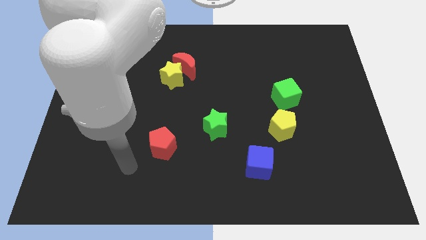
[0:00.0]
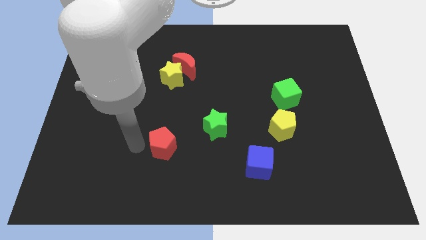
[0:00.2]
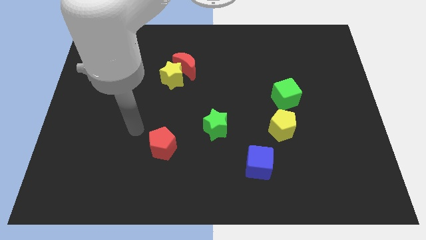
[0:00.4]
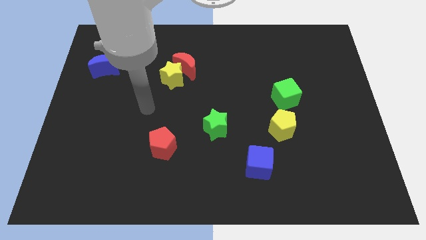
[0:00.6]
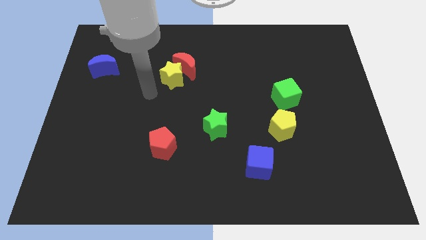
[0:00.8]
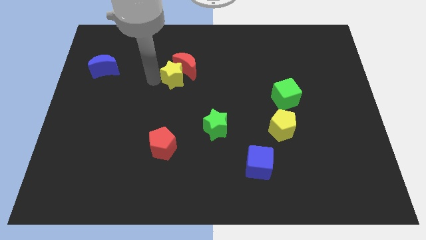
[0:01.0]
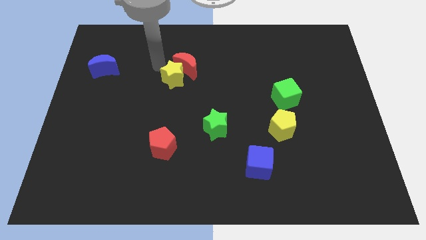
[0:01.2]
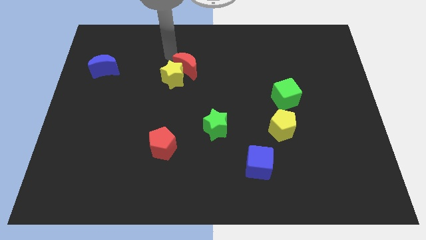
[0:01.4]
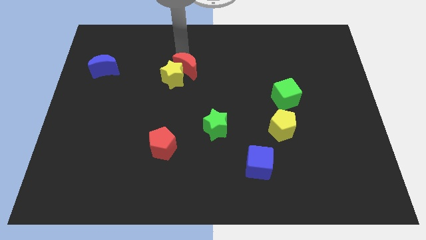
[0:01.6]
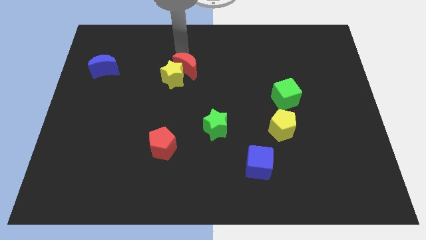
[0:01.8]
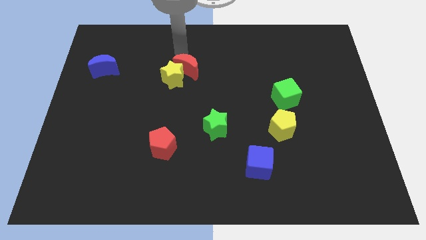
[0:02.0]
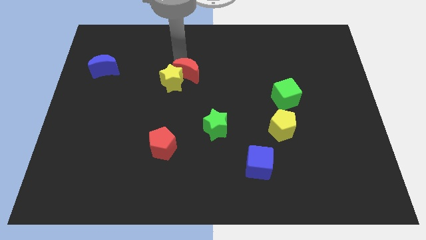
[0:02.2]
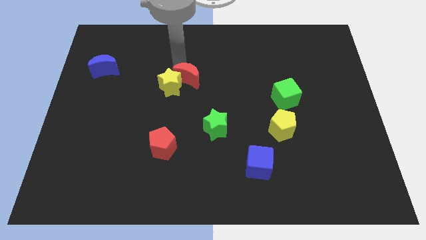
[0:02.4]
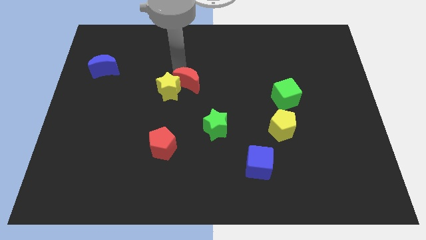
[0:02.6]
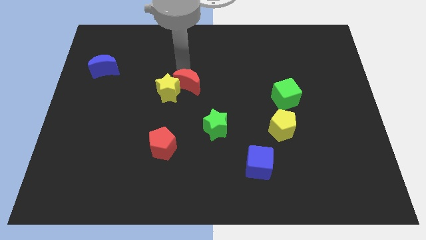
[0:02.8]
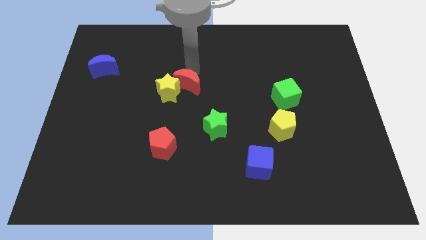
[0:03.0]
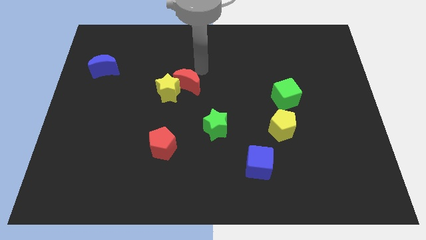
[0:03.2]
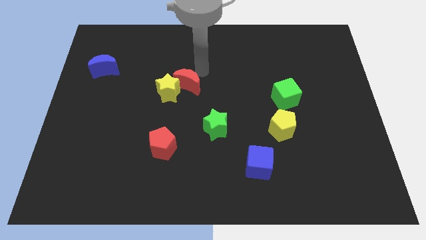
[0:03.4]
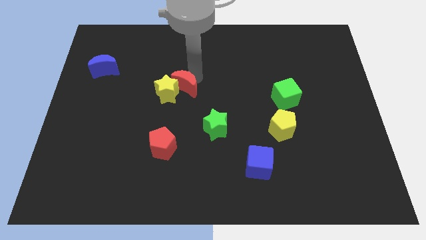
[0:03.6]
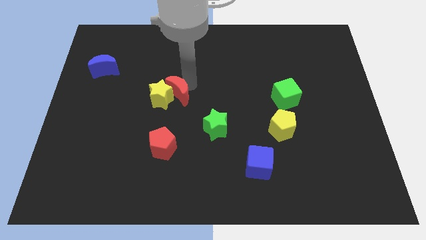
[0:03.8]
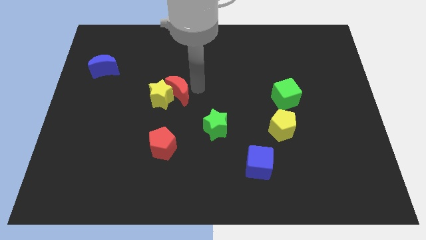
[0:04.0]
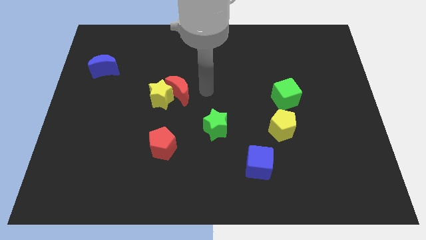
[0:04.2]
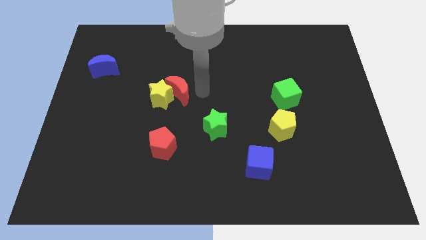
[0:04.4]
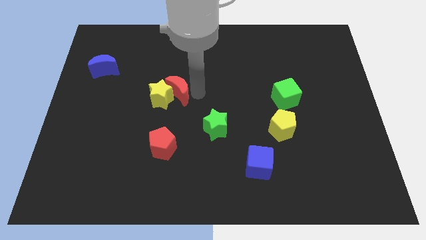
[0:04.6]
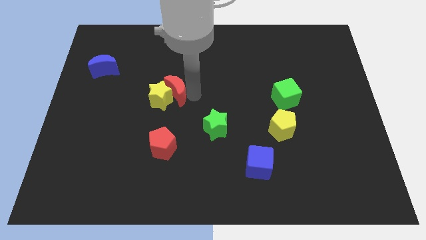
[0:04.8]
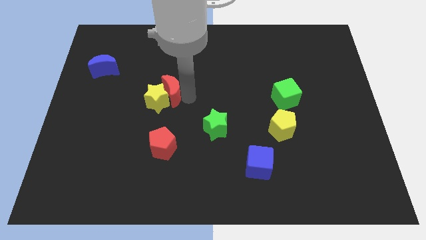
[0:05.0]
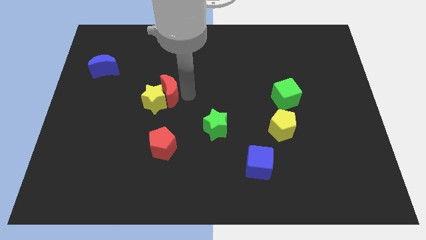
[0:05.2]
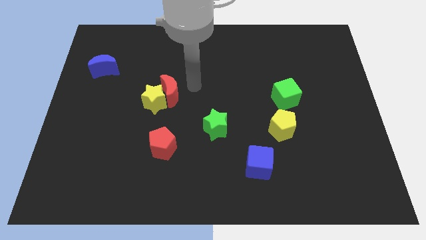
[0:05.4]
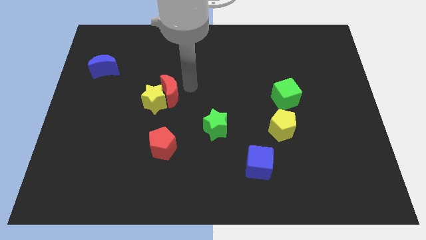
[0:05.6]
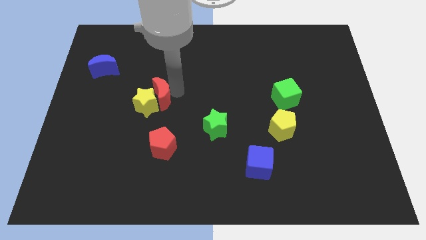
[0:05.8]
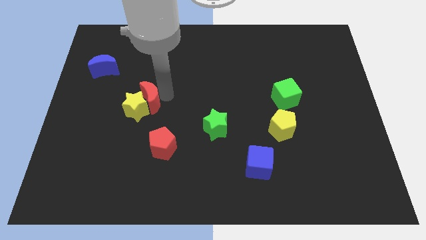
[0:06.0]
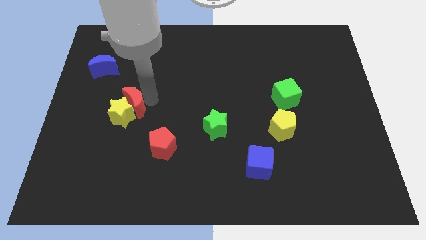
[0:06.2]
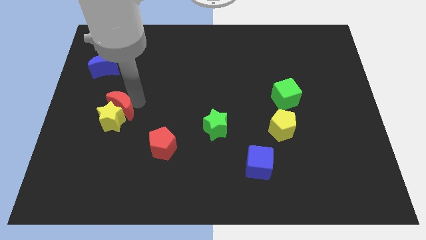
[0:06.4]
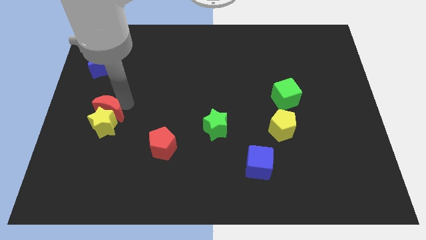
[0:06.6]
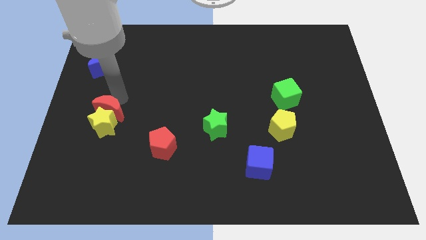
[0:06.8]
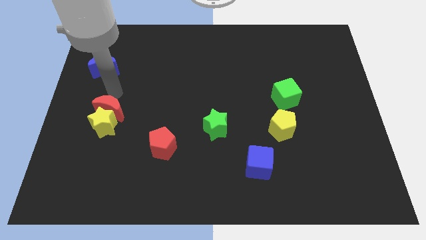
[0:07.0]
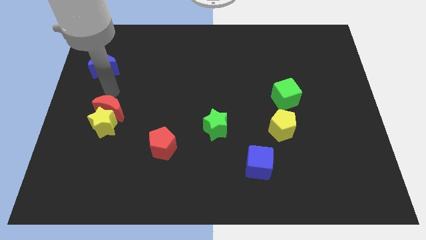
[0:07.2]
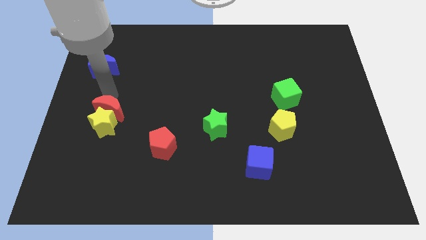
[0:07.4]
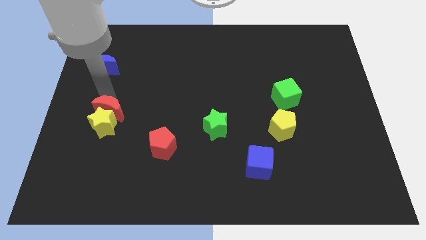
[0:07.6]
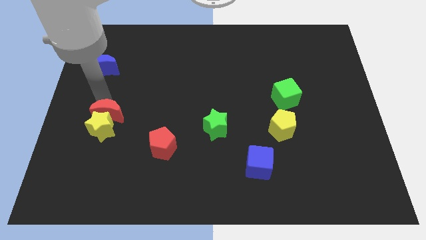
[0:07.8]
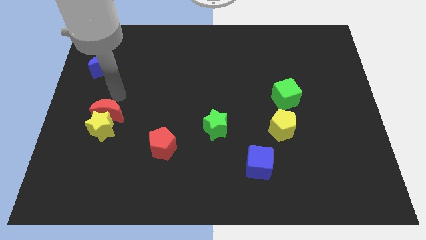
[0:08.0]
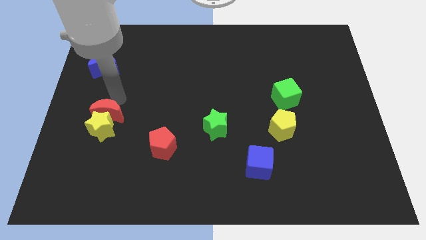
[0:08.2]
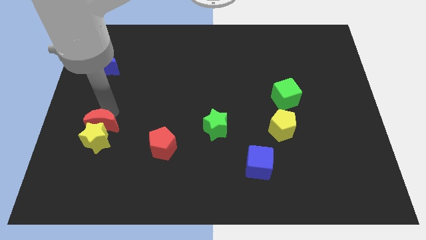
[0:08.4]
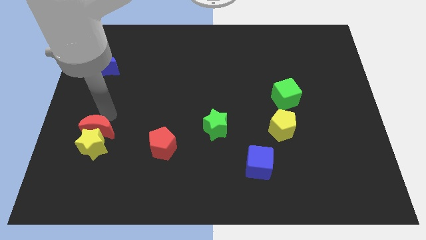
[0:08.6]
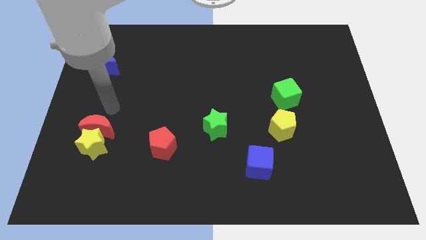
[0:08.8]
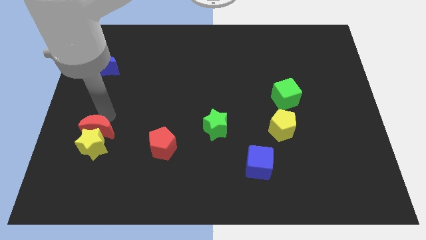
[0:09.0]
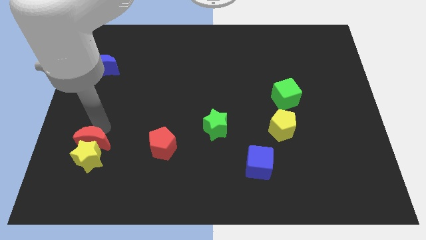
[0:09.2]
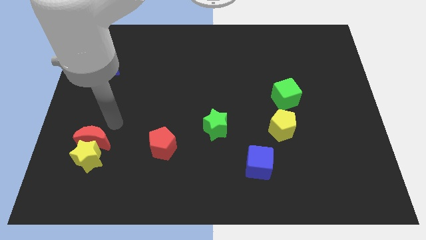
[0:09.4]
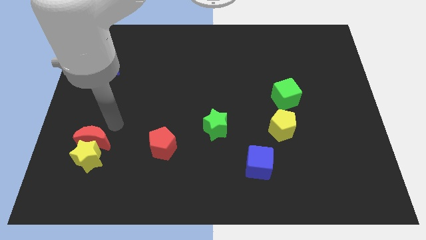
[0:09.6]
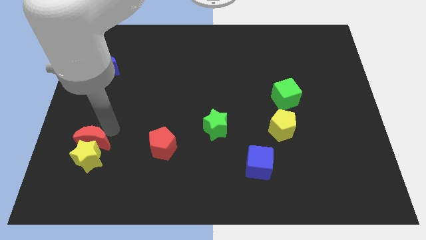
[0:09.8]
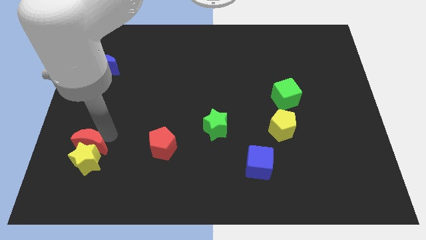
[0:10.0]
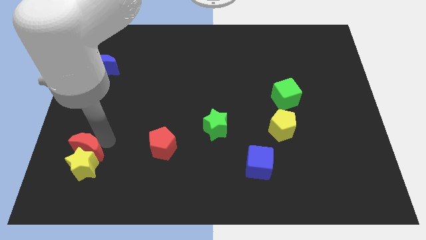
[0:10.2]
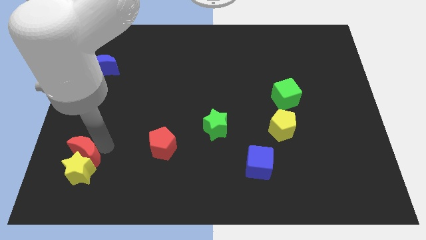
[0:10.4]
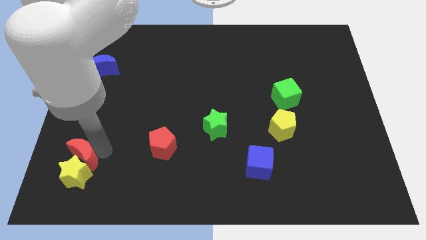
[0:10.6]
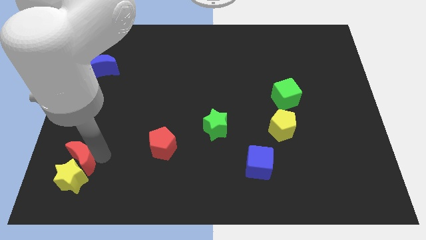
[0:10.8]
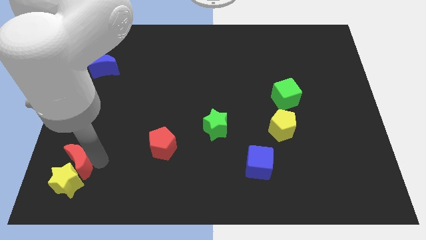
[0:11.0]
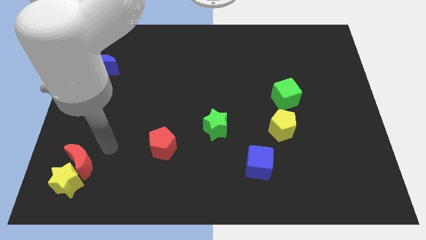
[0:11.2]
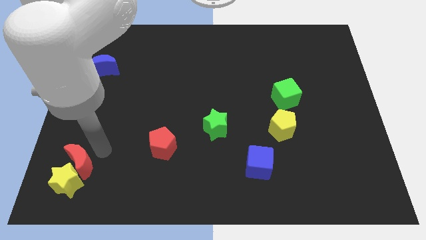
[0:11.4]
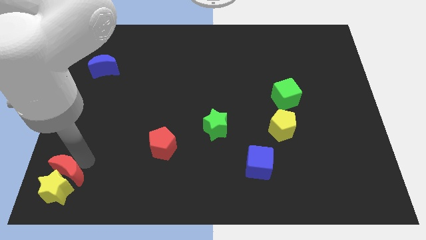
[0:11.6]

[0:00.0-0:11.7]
put the red moon to the bottom left corner

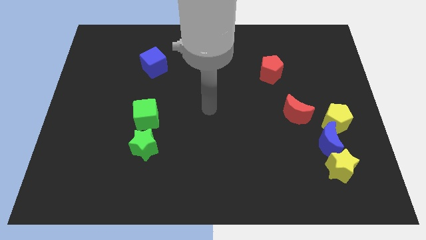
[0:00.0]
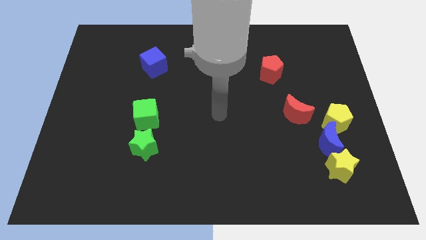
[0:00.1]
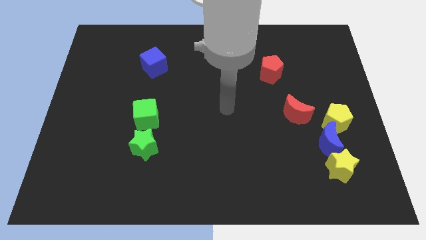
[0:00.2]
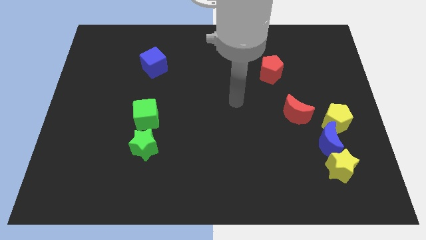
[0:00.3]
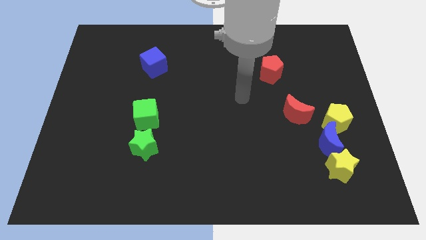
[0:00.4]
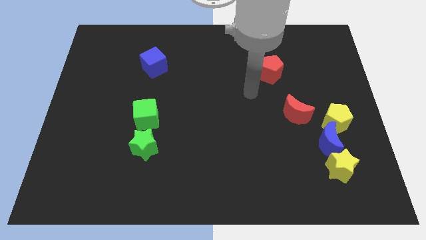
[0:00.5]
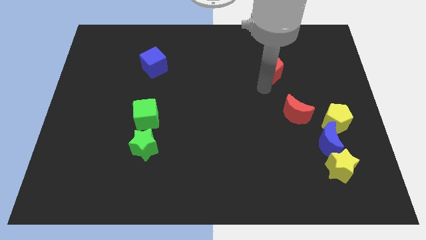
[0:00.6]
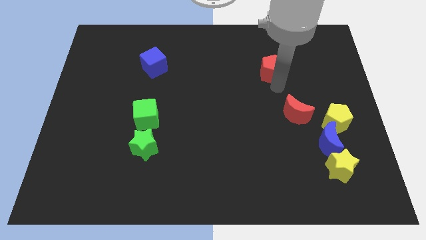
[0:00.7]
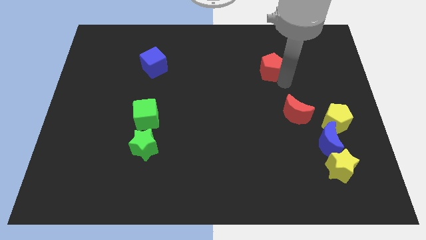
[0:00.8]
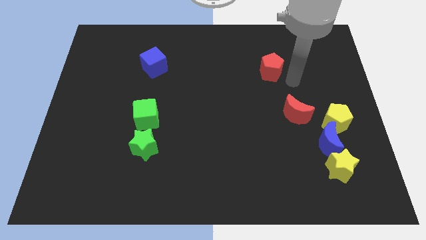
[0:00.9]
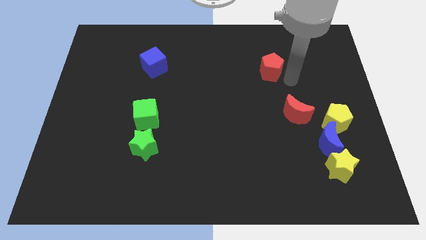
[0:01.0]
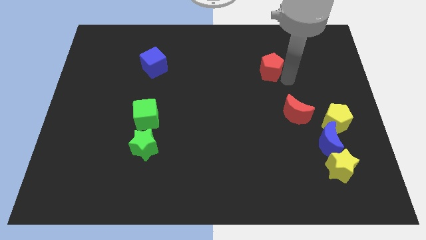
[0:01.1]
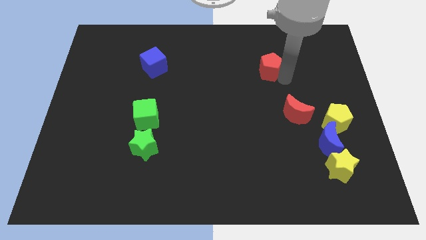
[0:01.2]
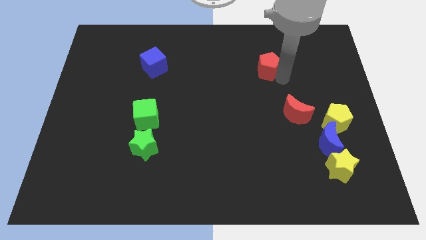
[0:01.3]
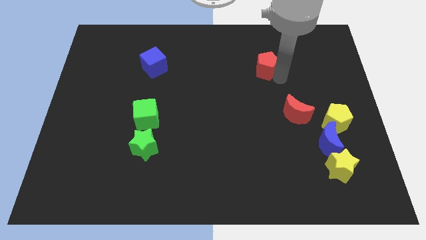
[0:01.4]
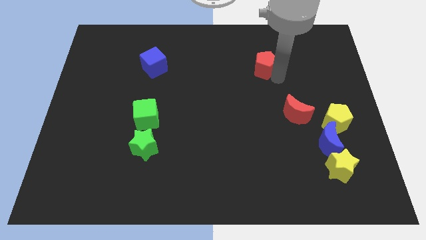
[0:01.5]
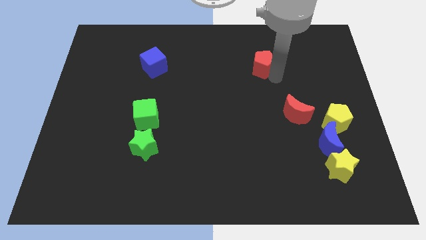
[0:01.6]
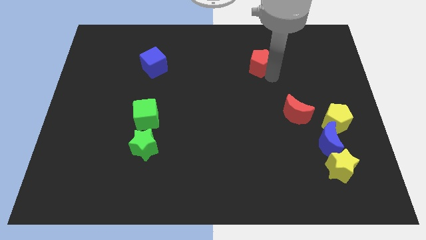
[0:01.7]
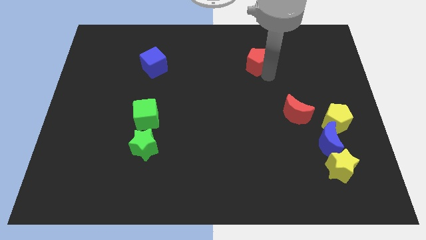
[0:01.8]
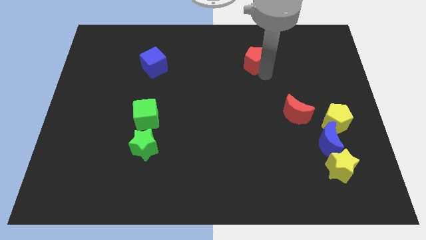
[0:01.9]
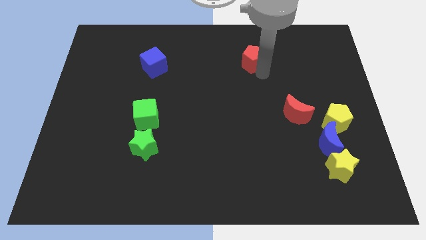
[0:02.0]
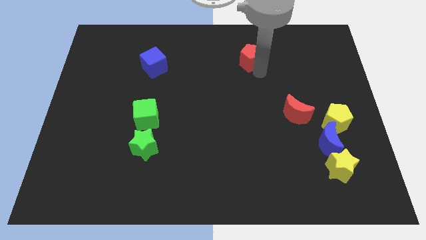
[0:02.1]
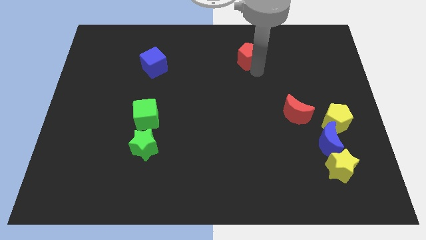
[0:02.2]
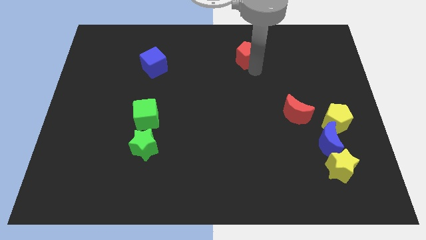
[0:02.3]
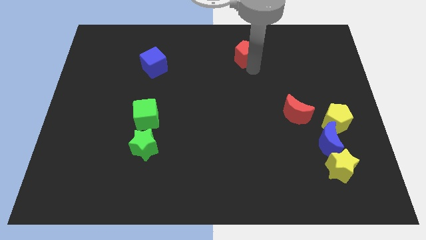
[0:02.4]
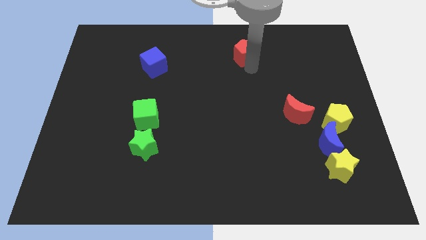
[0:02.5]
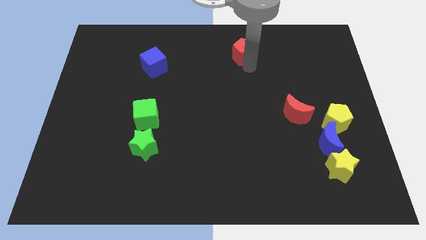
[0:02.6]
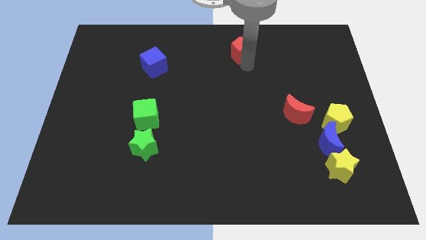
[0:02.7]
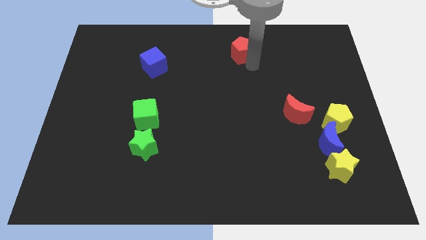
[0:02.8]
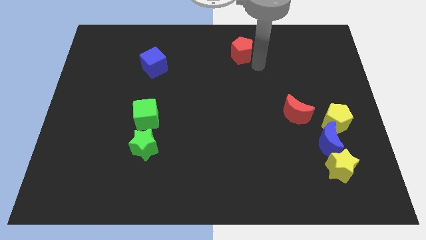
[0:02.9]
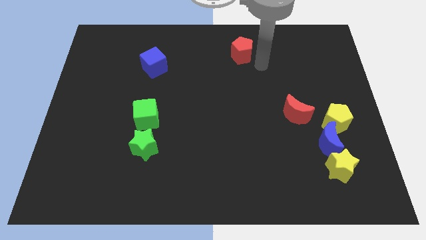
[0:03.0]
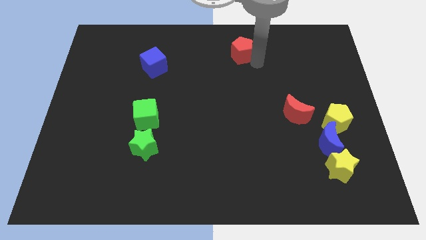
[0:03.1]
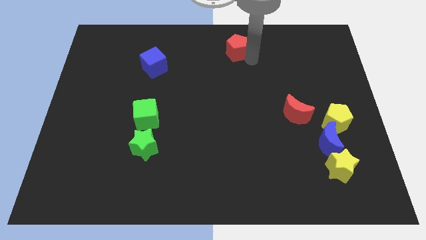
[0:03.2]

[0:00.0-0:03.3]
move the red pentagon to the top side
